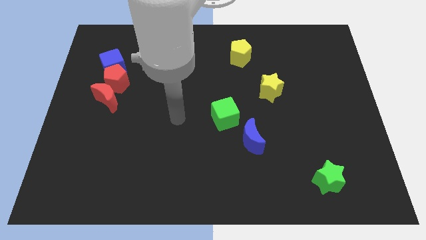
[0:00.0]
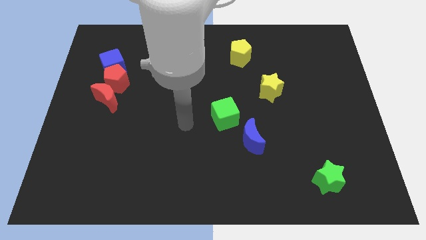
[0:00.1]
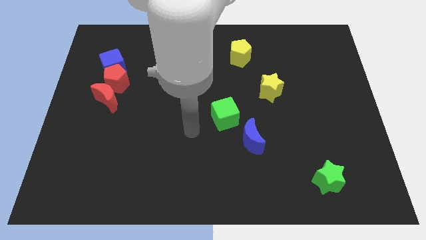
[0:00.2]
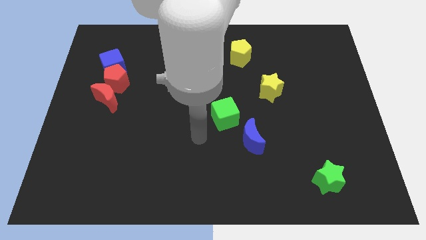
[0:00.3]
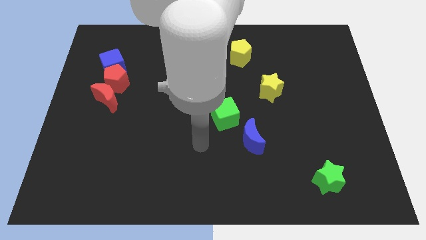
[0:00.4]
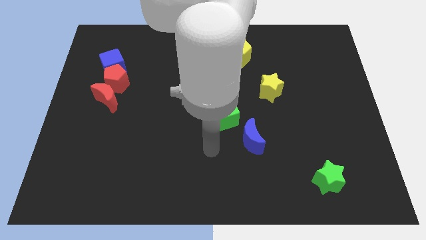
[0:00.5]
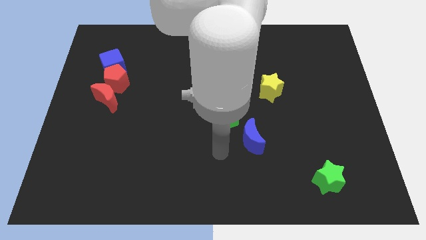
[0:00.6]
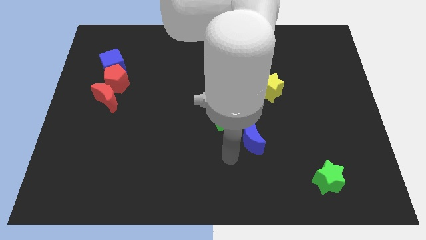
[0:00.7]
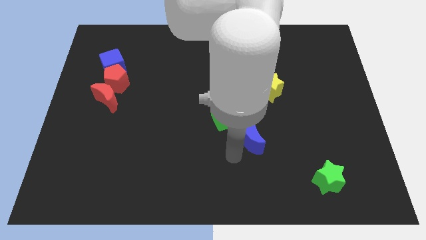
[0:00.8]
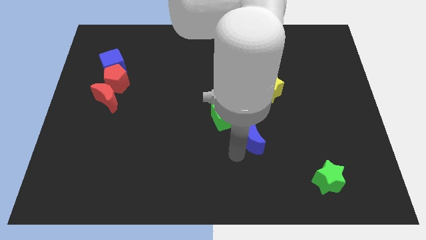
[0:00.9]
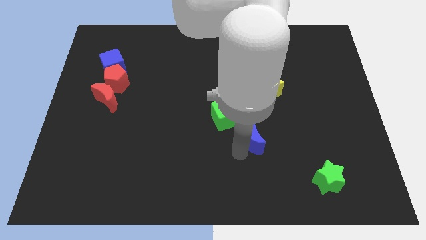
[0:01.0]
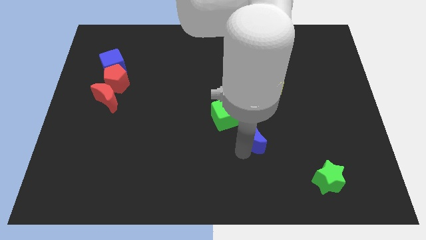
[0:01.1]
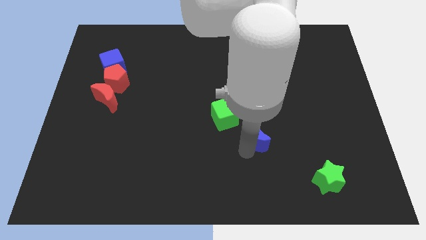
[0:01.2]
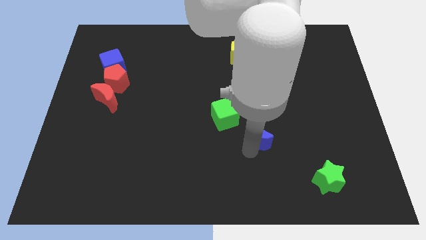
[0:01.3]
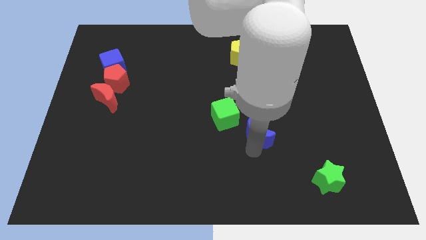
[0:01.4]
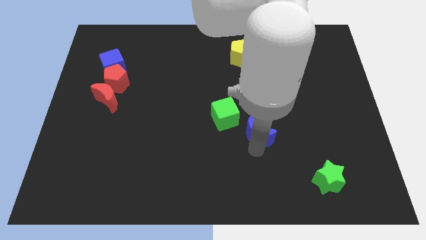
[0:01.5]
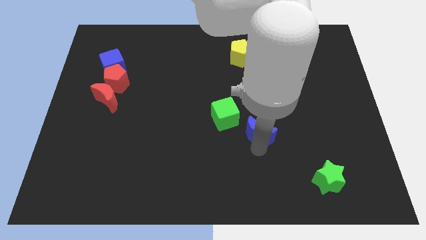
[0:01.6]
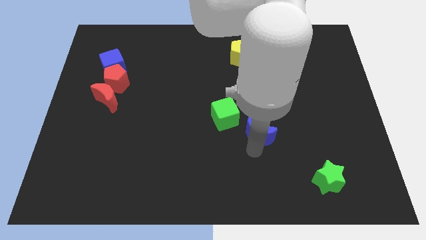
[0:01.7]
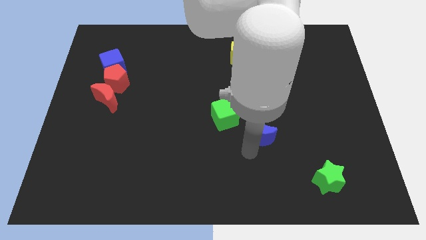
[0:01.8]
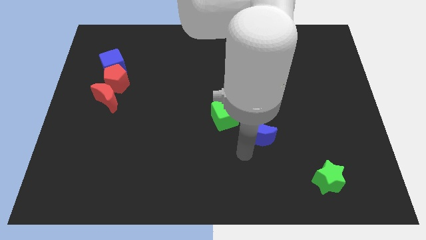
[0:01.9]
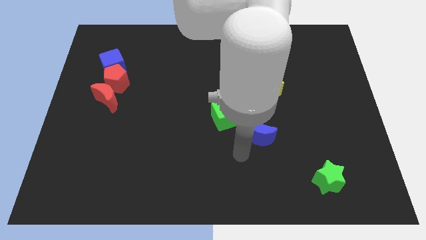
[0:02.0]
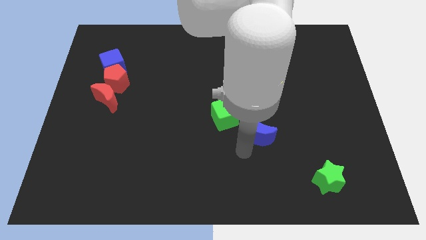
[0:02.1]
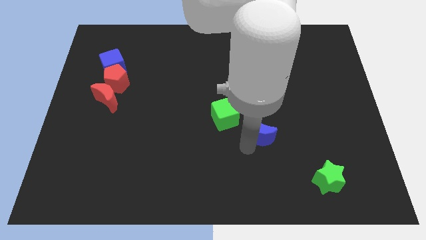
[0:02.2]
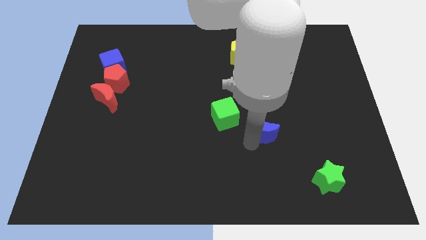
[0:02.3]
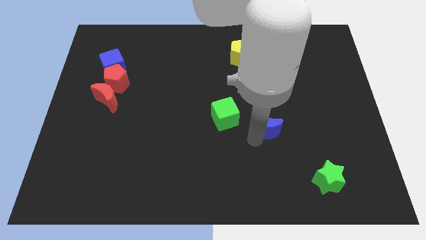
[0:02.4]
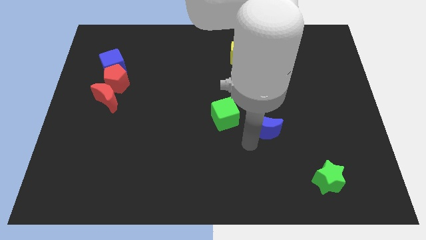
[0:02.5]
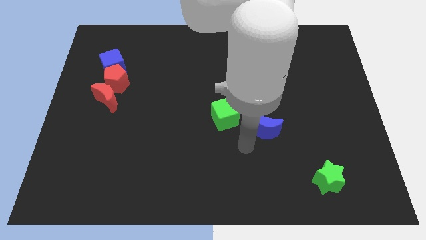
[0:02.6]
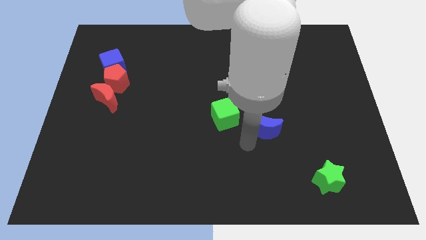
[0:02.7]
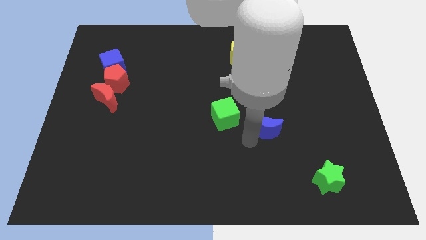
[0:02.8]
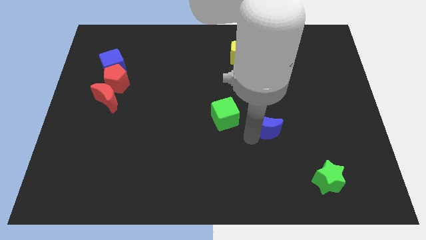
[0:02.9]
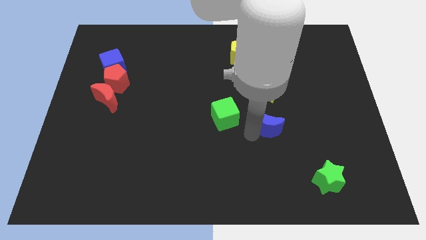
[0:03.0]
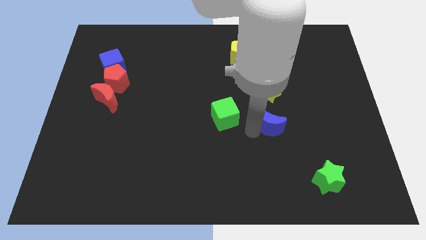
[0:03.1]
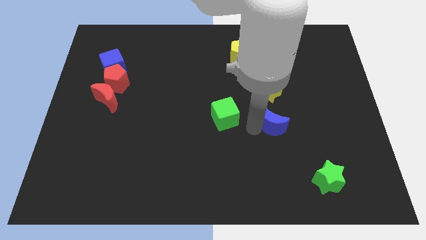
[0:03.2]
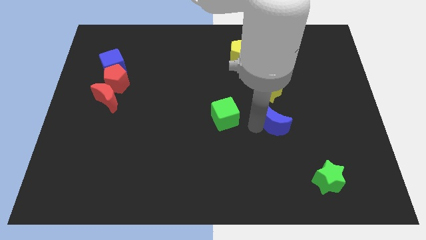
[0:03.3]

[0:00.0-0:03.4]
slightly slide the blue moon up and to the right diagonally

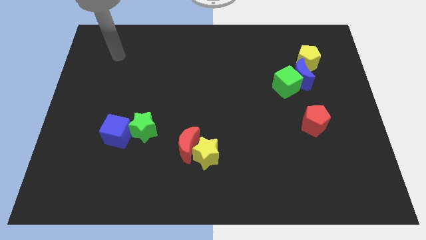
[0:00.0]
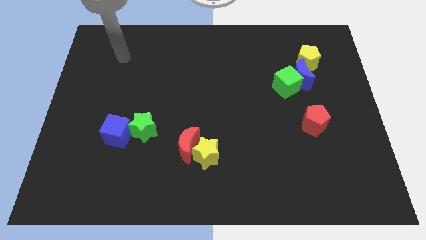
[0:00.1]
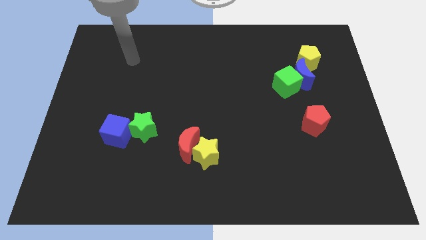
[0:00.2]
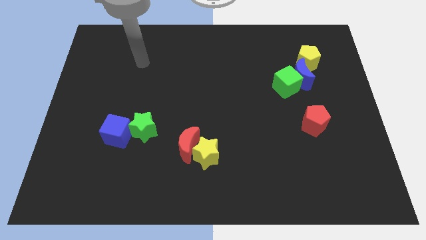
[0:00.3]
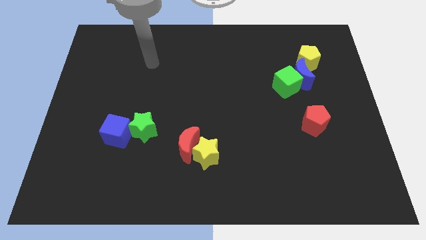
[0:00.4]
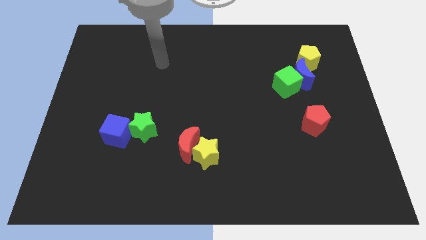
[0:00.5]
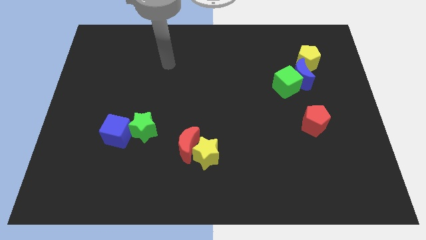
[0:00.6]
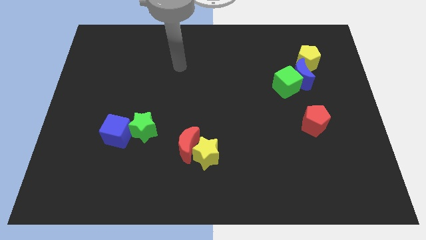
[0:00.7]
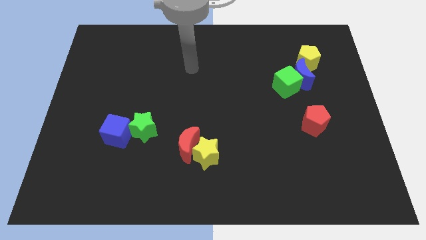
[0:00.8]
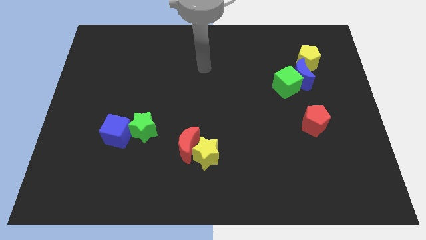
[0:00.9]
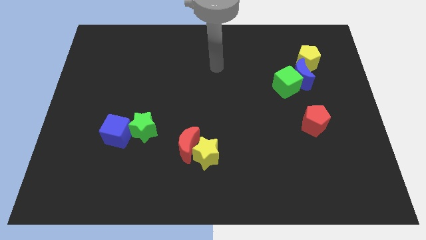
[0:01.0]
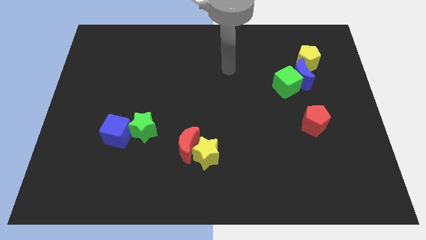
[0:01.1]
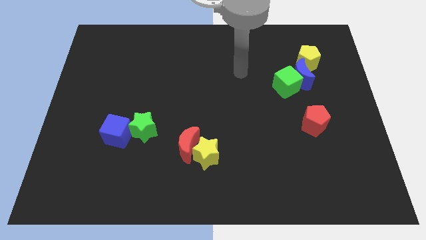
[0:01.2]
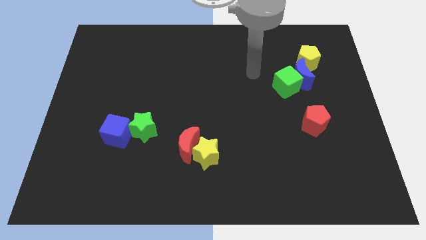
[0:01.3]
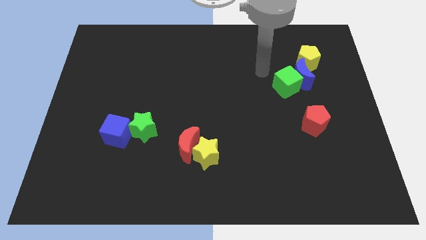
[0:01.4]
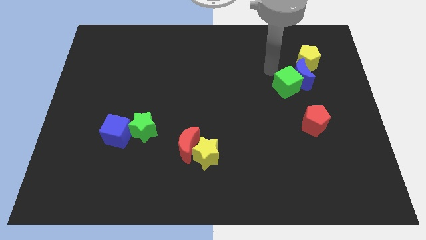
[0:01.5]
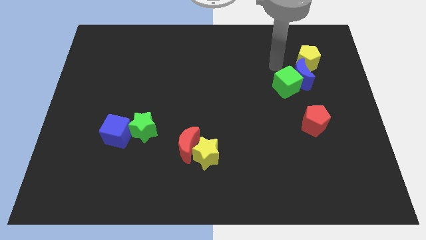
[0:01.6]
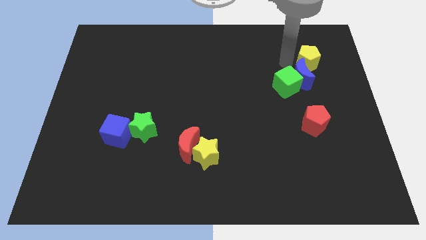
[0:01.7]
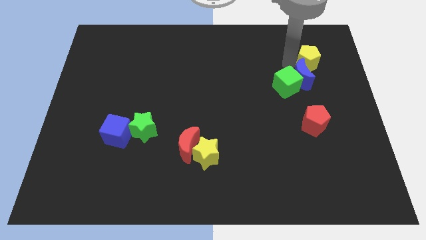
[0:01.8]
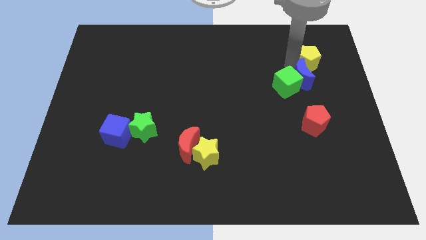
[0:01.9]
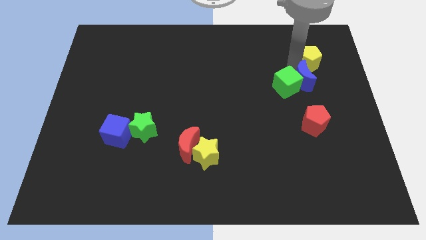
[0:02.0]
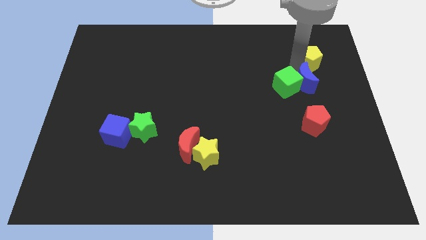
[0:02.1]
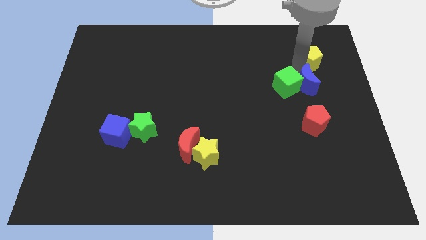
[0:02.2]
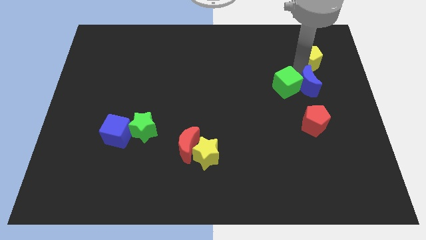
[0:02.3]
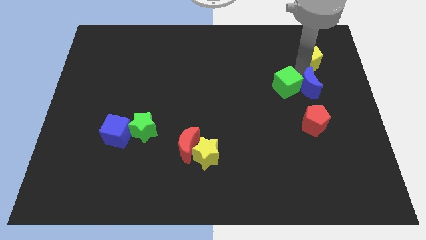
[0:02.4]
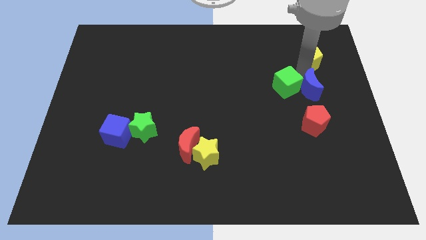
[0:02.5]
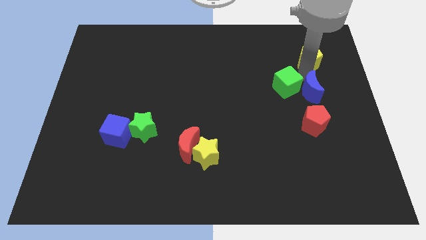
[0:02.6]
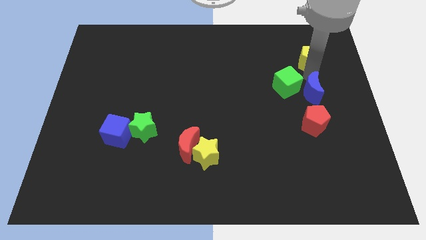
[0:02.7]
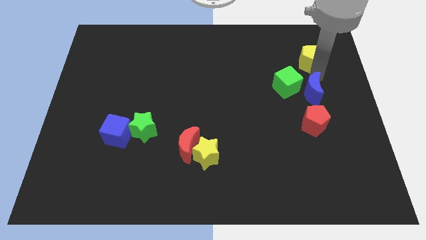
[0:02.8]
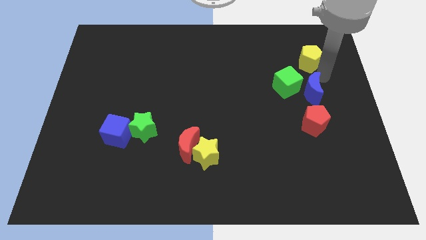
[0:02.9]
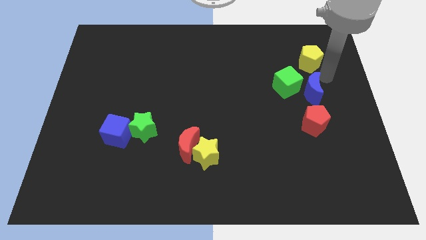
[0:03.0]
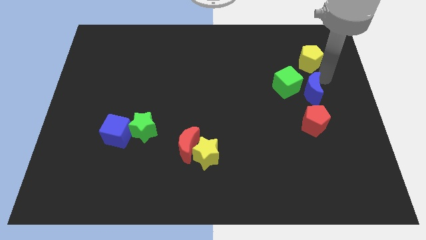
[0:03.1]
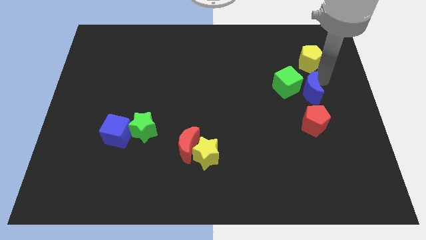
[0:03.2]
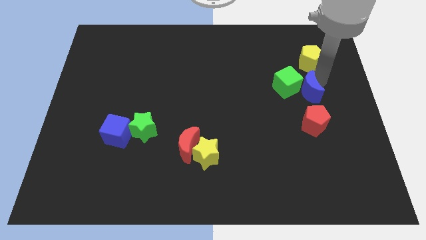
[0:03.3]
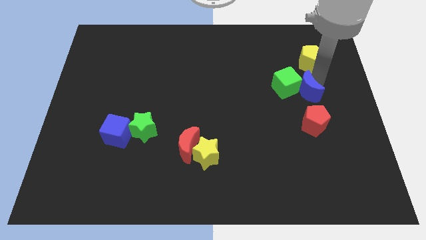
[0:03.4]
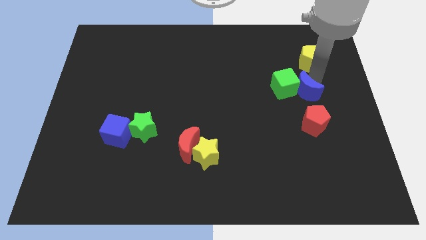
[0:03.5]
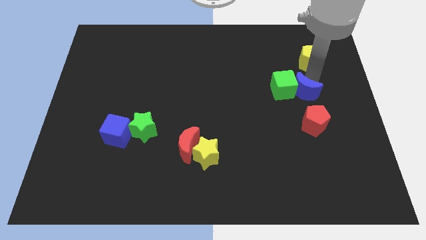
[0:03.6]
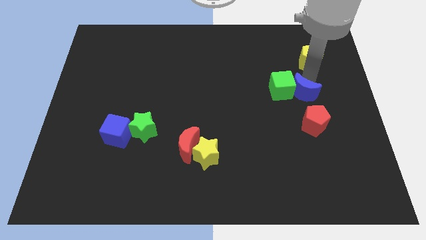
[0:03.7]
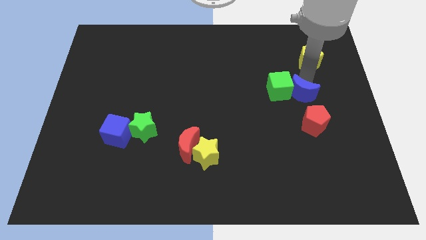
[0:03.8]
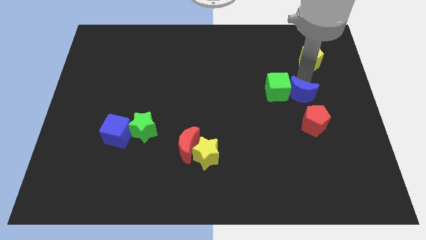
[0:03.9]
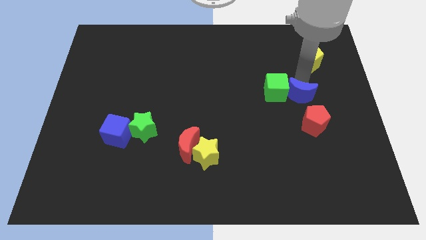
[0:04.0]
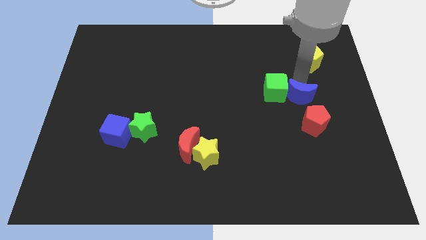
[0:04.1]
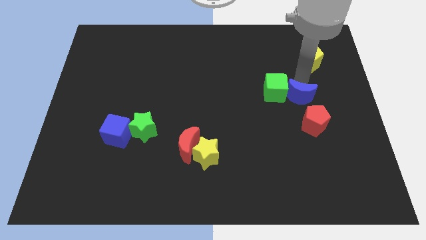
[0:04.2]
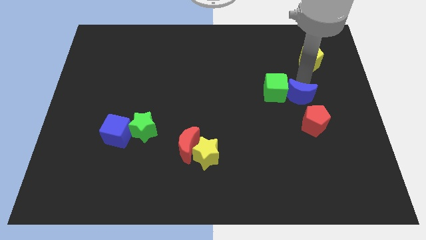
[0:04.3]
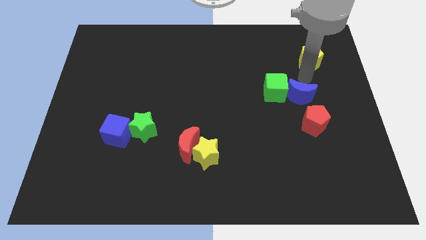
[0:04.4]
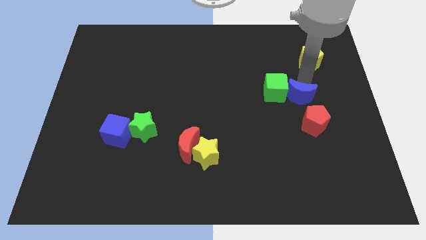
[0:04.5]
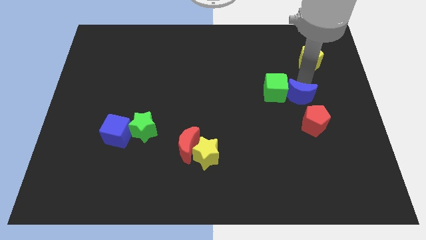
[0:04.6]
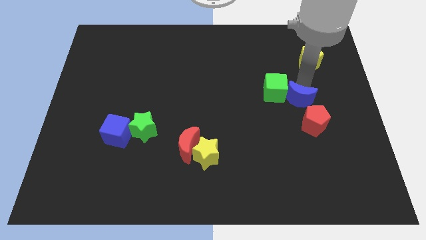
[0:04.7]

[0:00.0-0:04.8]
slide the blue moon down a little

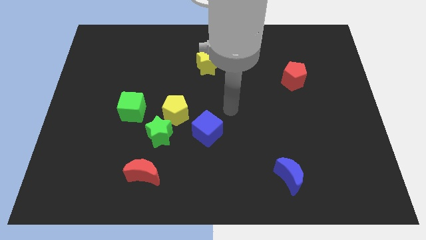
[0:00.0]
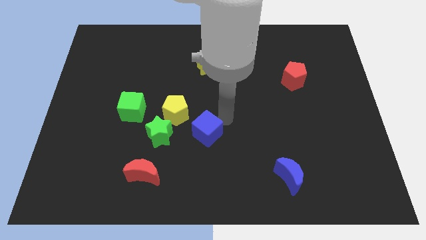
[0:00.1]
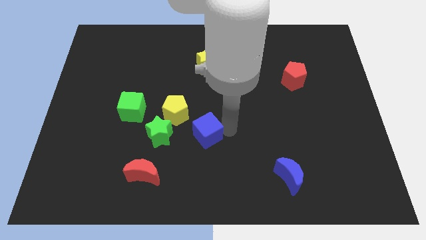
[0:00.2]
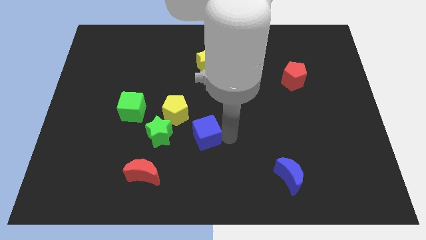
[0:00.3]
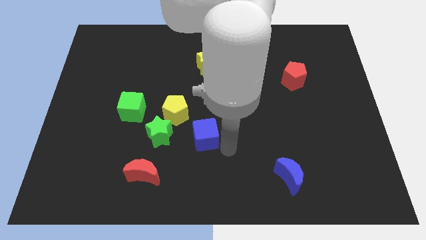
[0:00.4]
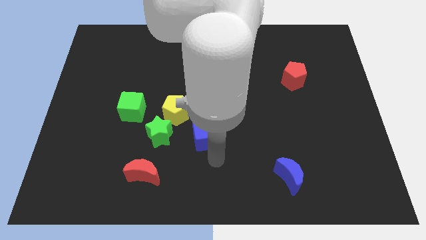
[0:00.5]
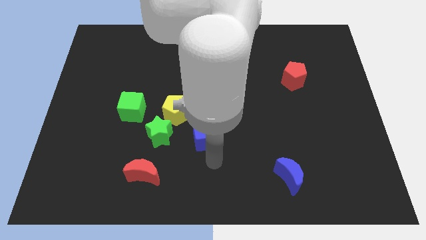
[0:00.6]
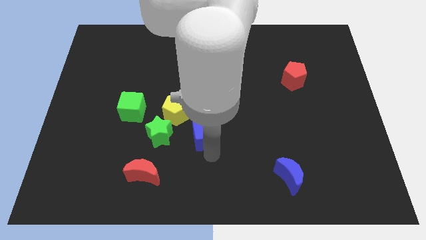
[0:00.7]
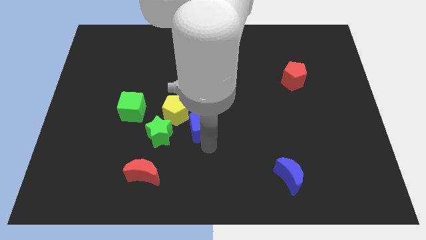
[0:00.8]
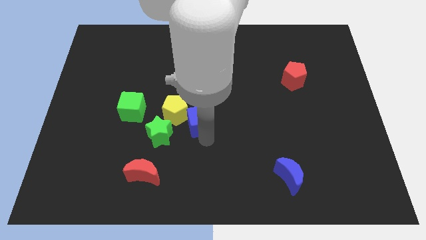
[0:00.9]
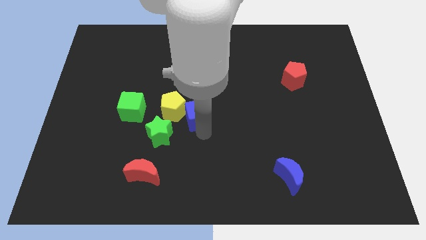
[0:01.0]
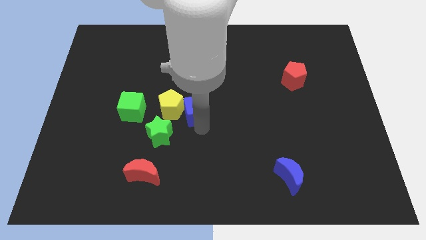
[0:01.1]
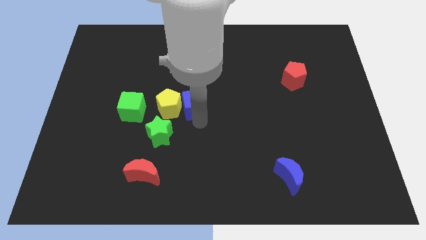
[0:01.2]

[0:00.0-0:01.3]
move the blue cube diagonally up and left slightly
